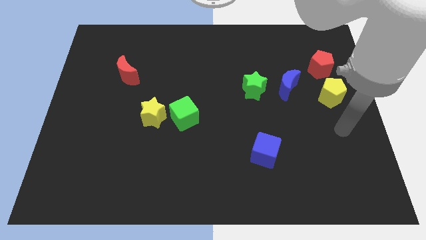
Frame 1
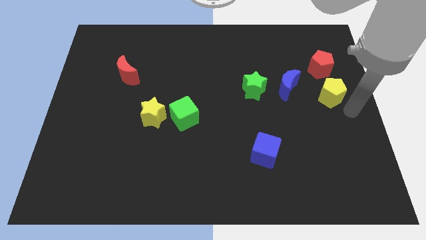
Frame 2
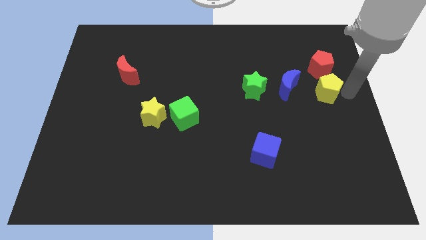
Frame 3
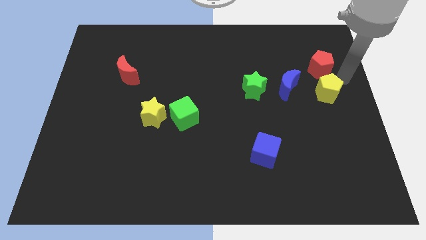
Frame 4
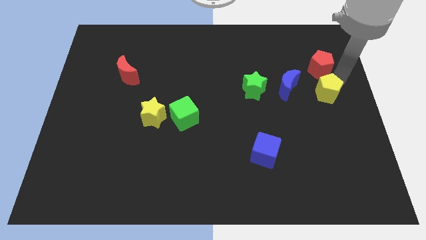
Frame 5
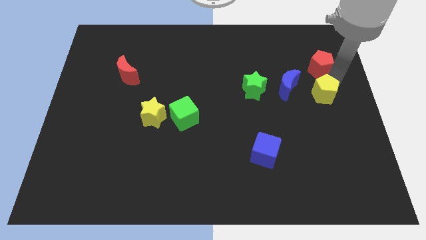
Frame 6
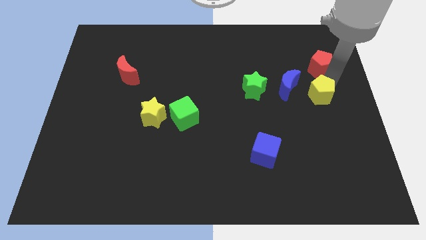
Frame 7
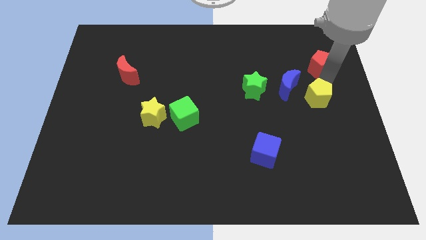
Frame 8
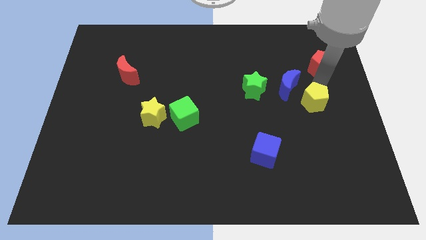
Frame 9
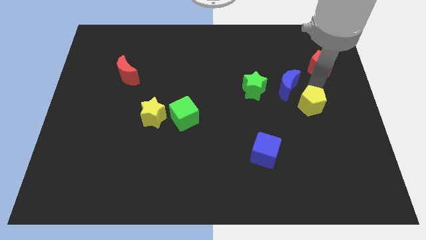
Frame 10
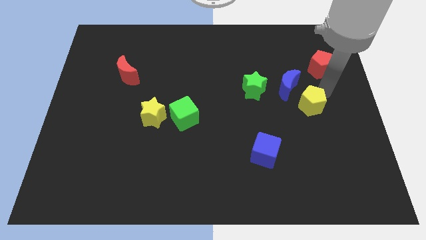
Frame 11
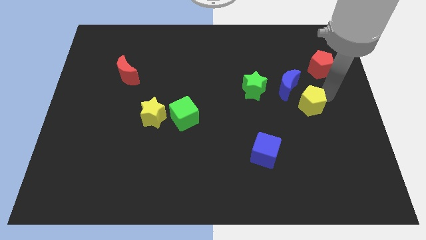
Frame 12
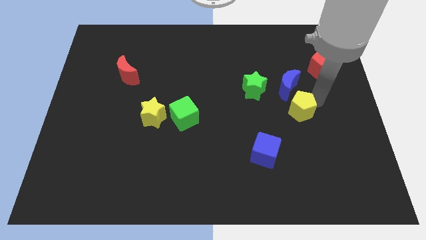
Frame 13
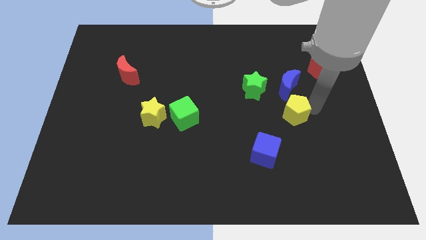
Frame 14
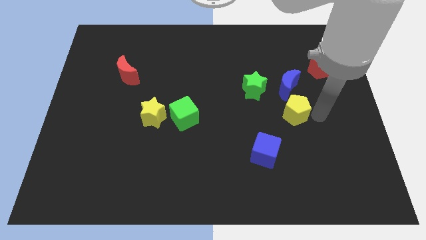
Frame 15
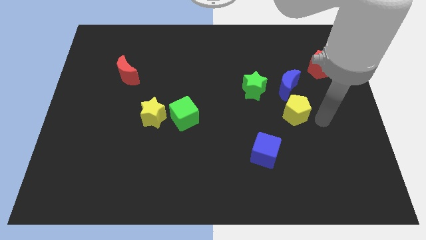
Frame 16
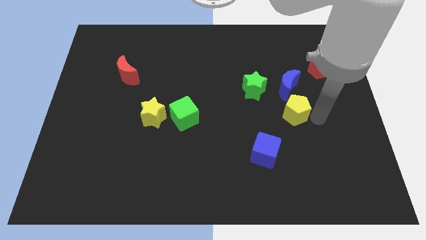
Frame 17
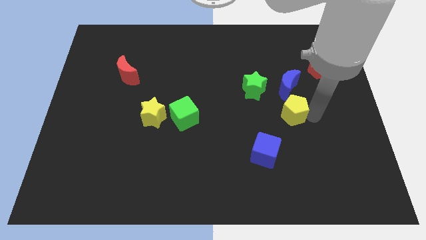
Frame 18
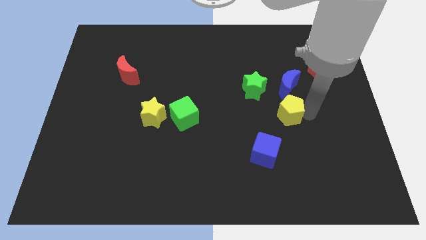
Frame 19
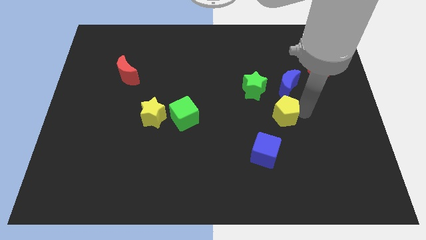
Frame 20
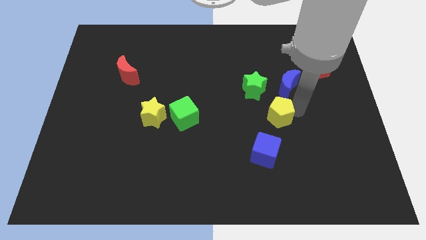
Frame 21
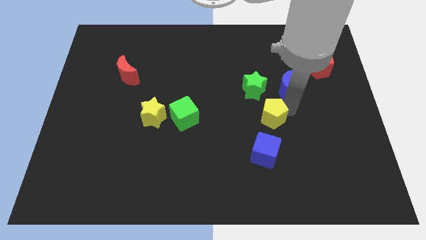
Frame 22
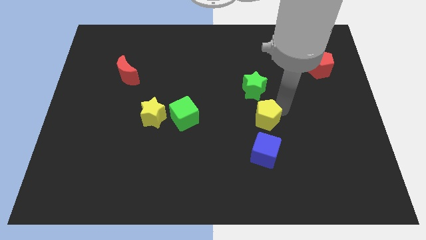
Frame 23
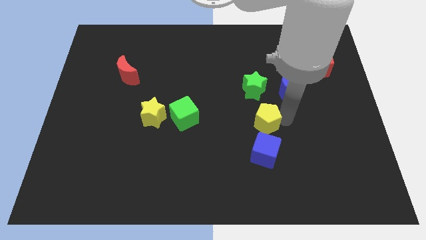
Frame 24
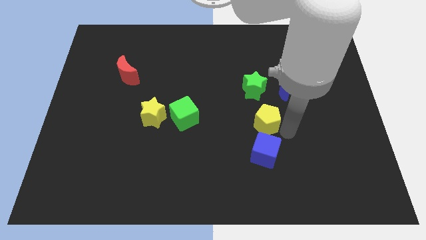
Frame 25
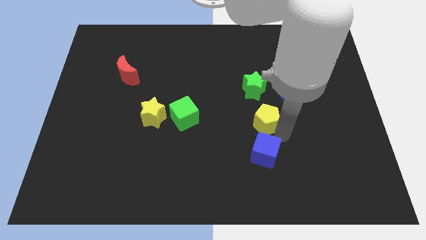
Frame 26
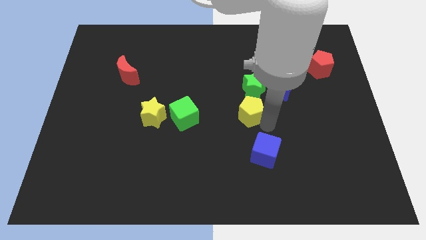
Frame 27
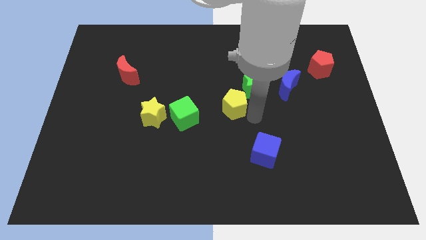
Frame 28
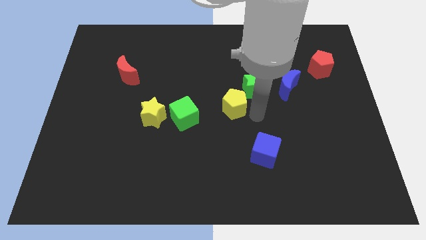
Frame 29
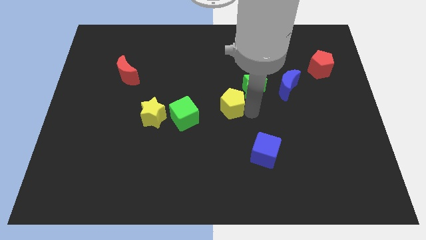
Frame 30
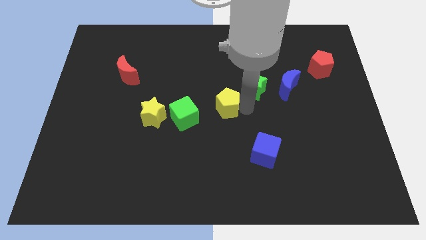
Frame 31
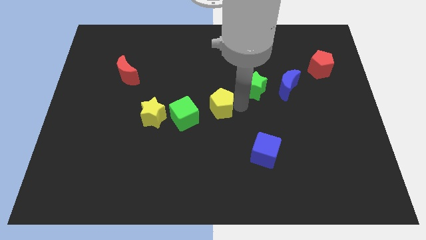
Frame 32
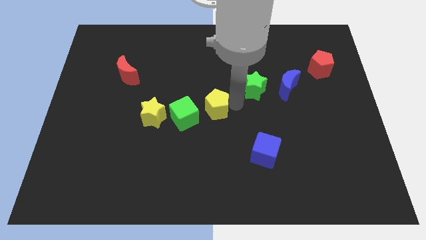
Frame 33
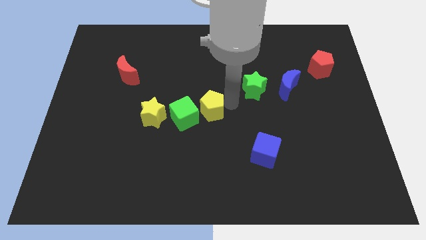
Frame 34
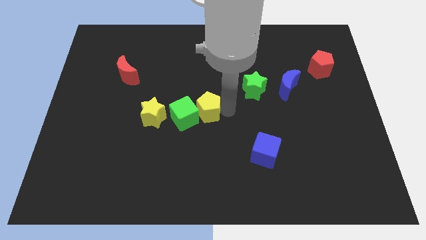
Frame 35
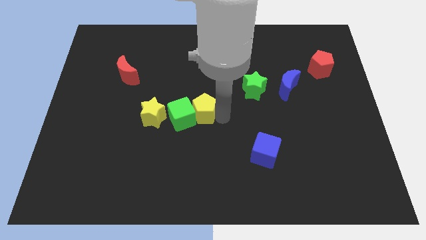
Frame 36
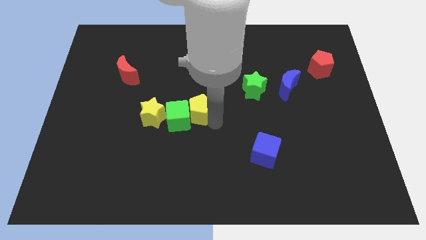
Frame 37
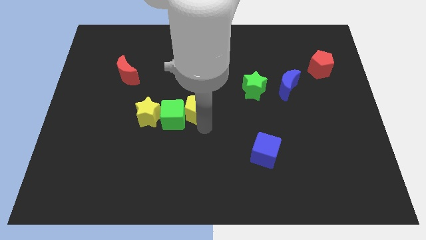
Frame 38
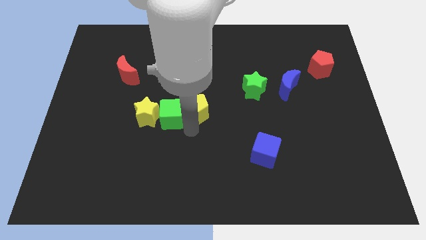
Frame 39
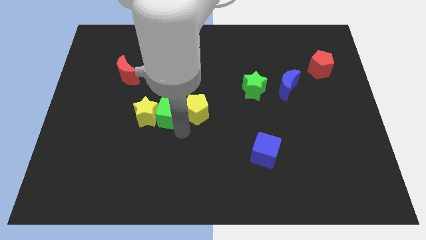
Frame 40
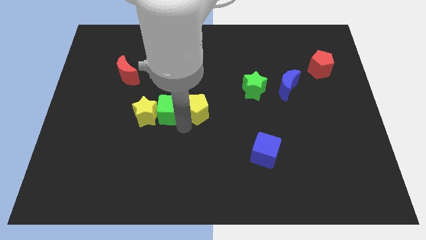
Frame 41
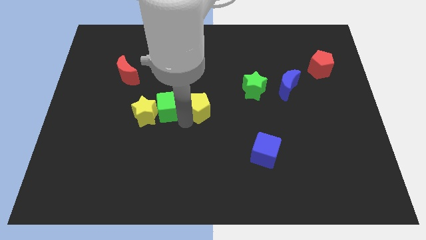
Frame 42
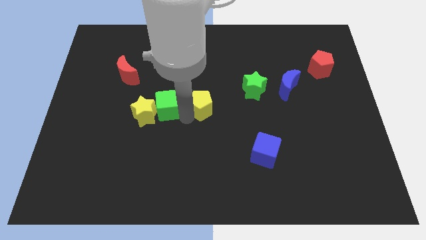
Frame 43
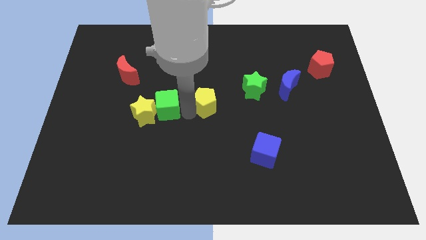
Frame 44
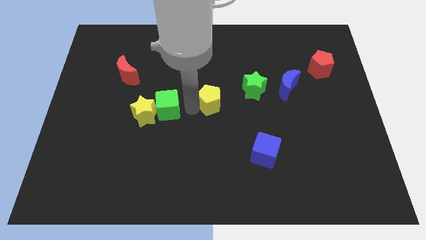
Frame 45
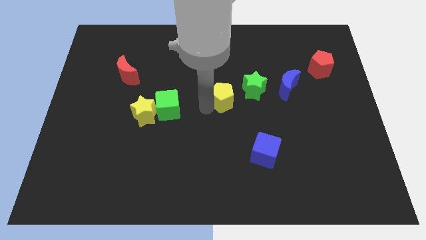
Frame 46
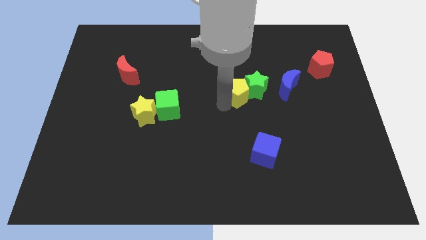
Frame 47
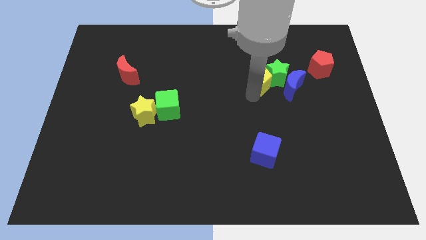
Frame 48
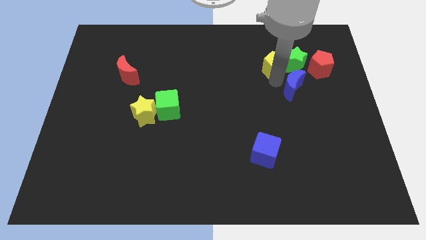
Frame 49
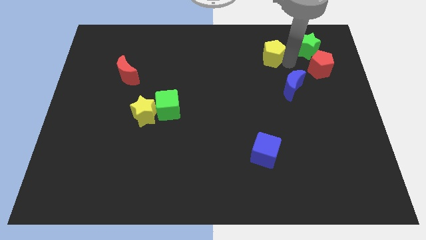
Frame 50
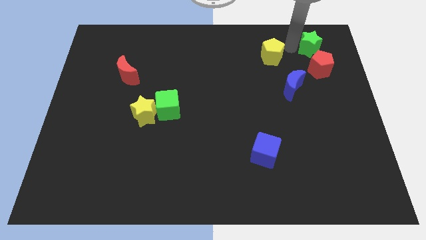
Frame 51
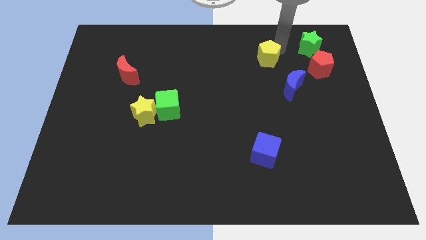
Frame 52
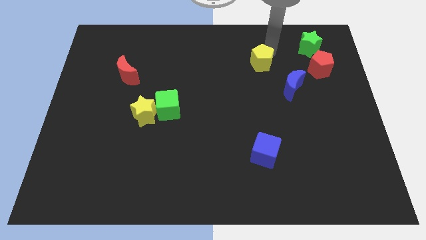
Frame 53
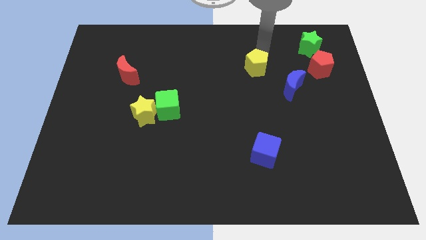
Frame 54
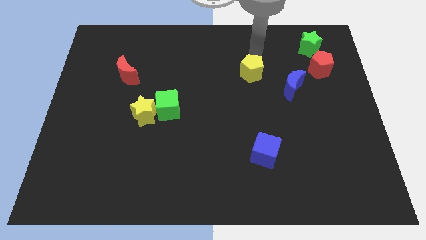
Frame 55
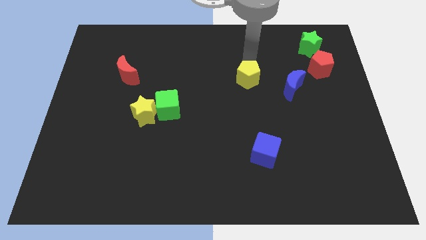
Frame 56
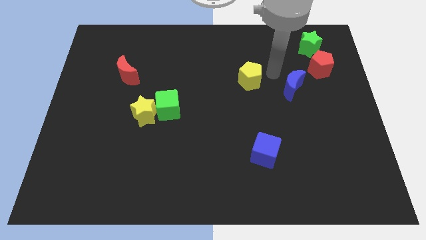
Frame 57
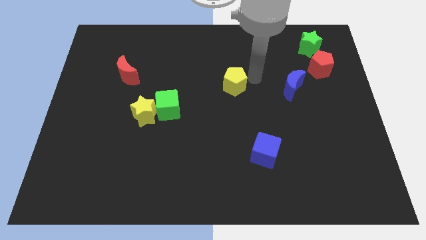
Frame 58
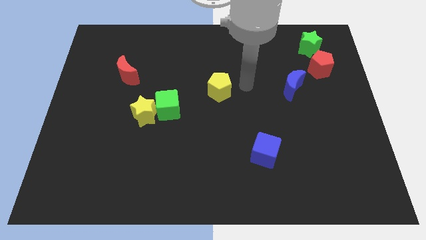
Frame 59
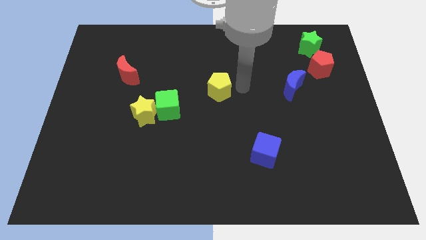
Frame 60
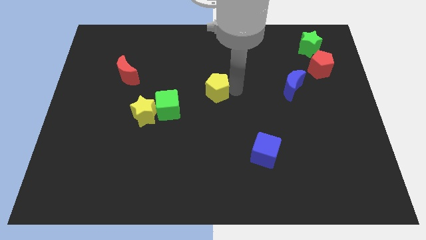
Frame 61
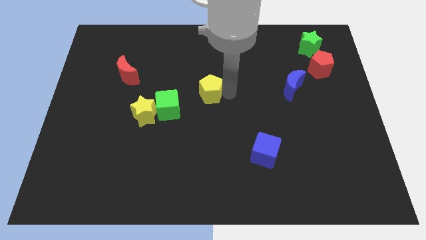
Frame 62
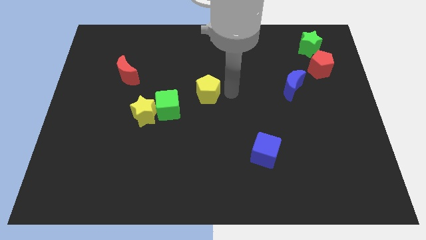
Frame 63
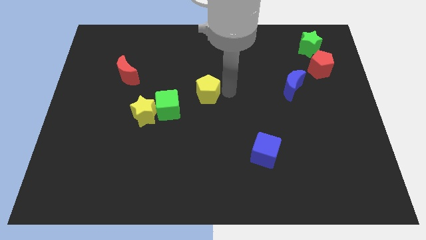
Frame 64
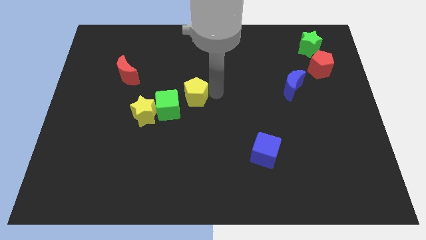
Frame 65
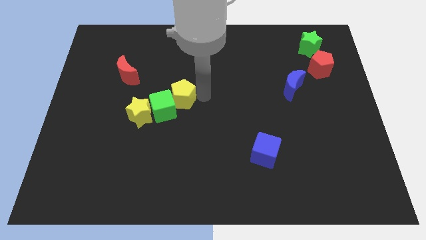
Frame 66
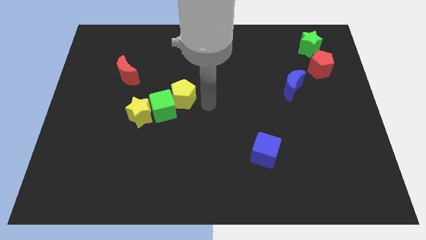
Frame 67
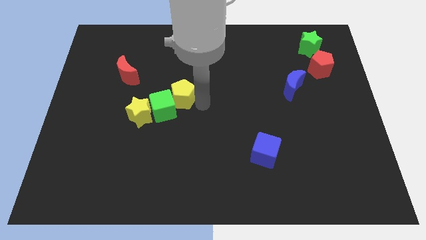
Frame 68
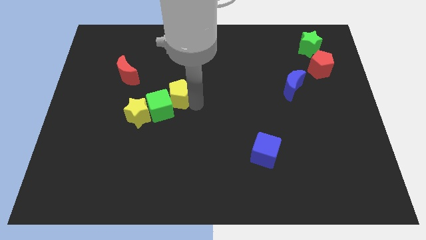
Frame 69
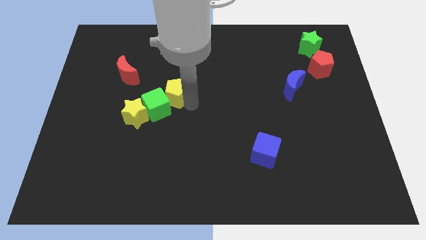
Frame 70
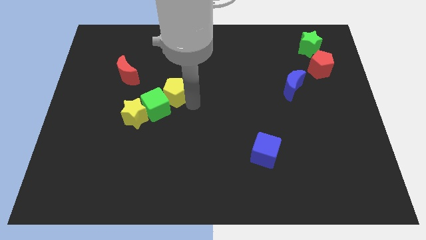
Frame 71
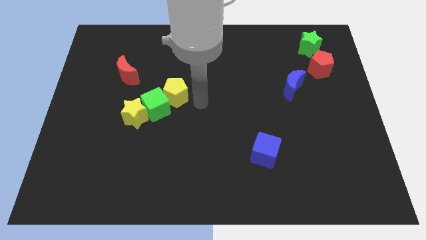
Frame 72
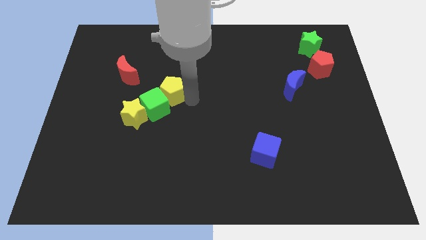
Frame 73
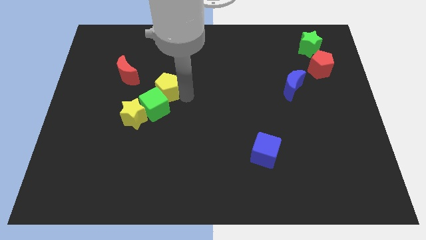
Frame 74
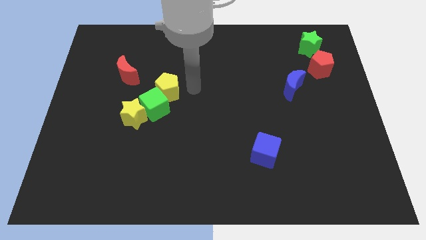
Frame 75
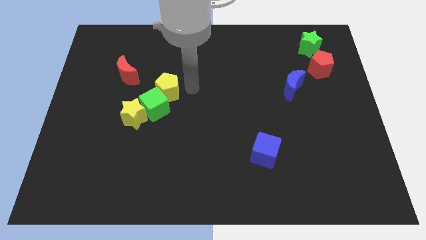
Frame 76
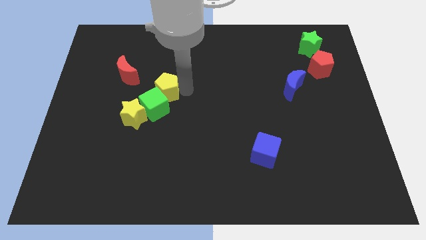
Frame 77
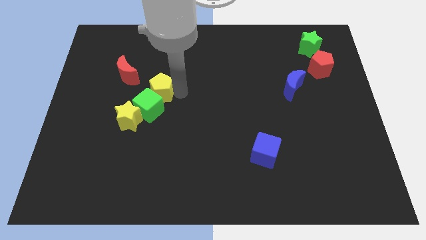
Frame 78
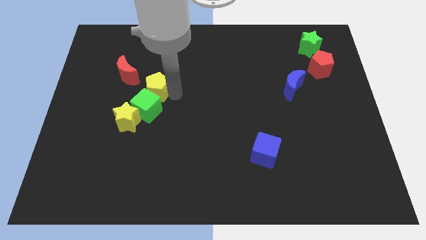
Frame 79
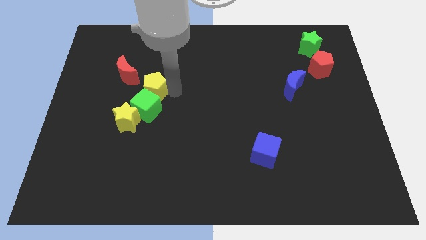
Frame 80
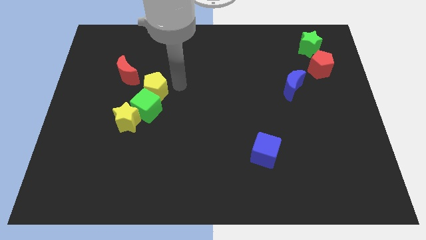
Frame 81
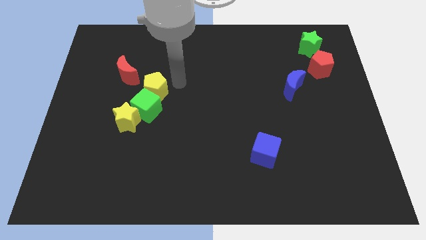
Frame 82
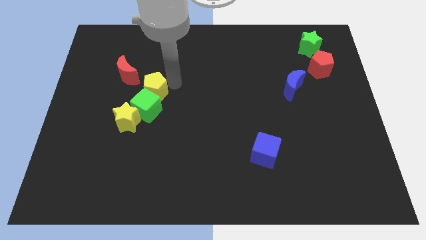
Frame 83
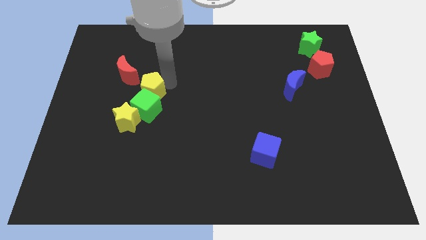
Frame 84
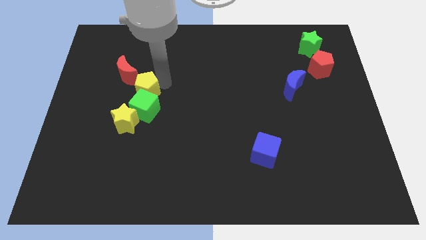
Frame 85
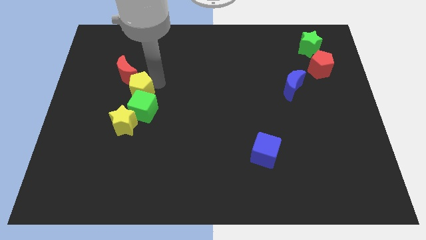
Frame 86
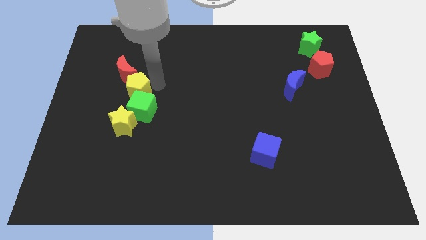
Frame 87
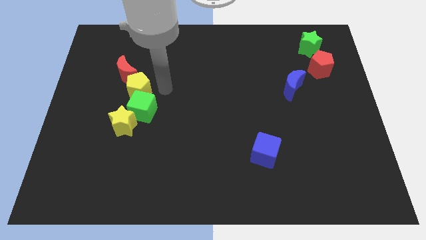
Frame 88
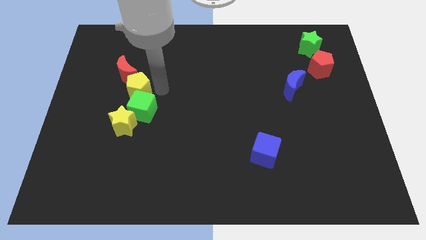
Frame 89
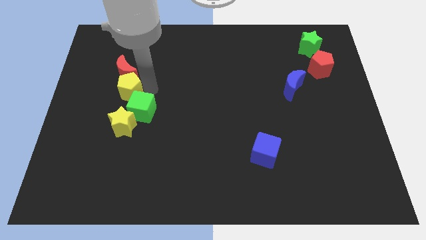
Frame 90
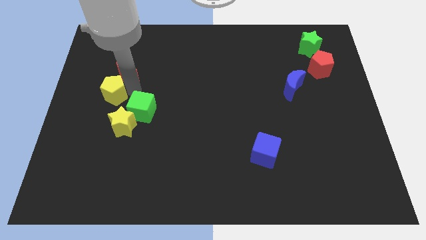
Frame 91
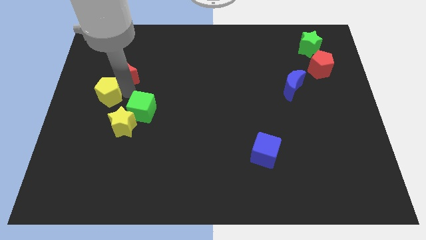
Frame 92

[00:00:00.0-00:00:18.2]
push the yellow pentagon to the left side
